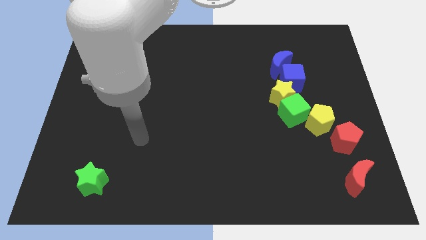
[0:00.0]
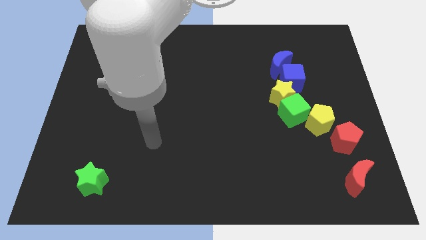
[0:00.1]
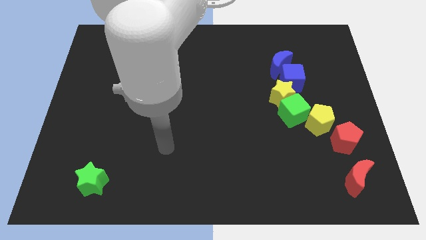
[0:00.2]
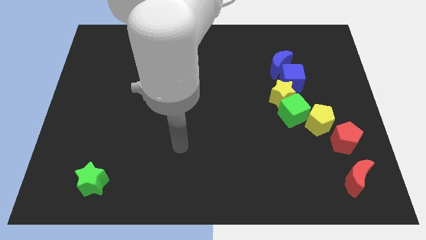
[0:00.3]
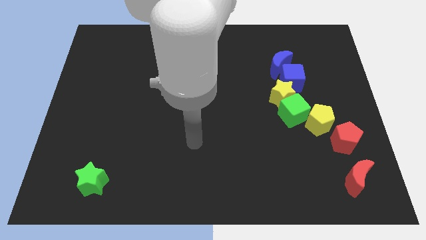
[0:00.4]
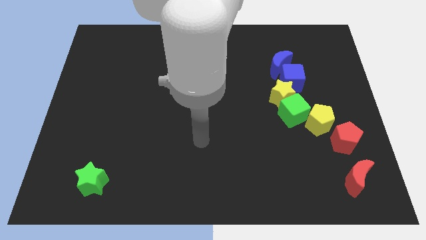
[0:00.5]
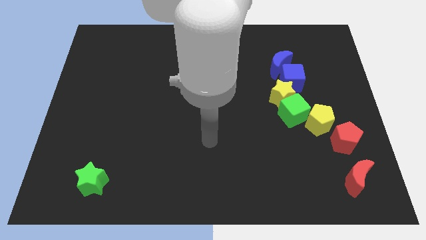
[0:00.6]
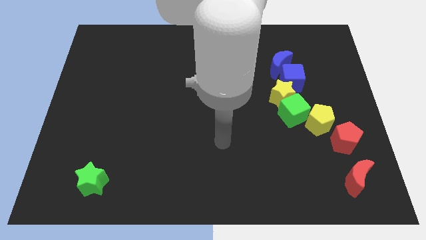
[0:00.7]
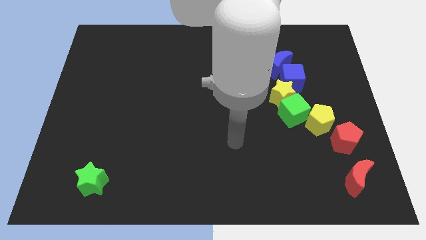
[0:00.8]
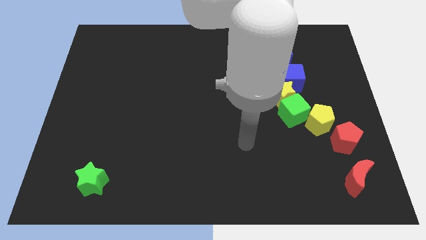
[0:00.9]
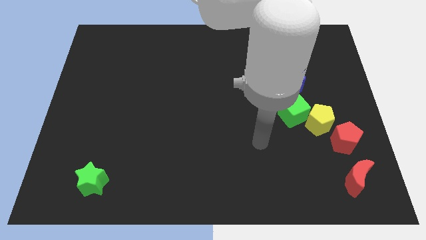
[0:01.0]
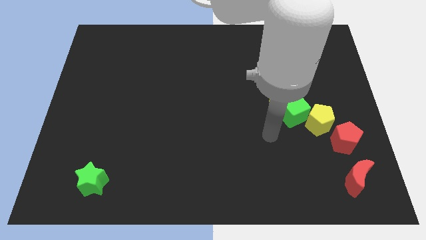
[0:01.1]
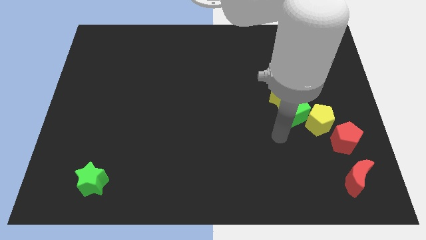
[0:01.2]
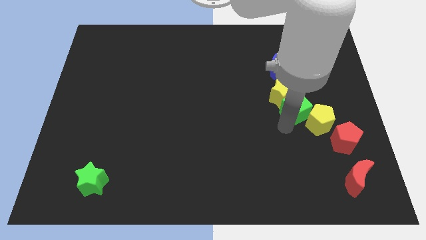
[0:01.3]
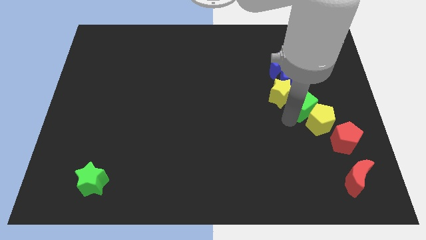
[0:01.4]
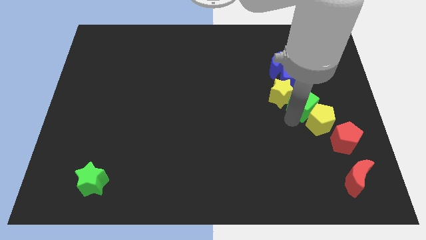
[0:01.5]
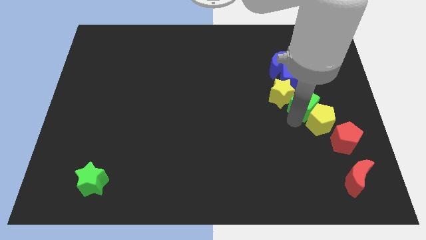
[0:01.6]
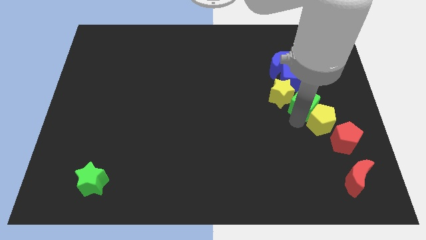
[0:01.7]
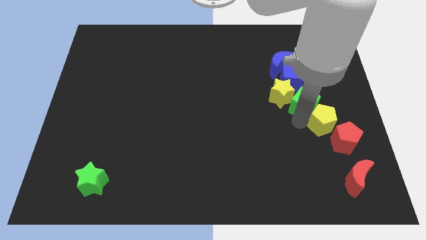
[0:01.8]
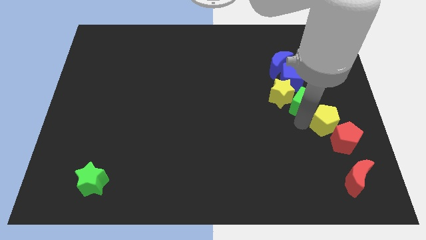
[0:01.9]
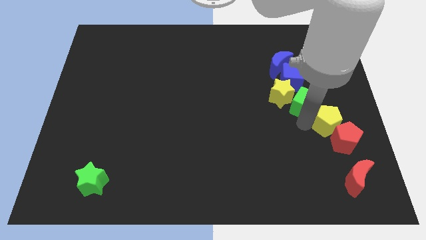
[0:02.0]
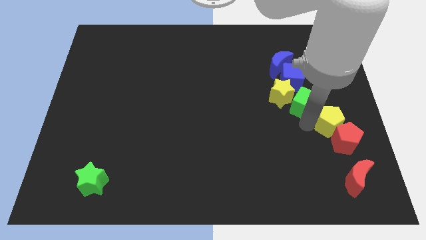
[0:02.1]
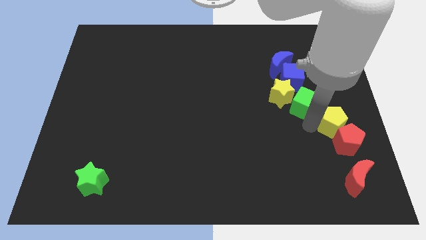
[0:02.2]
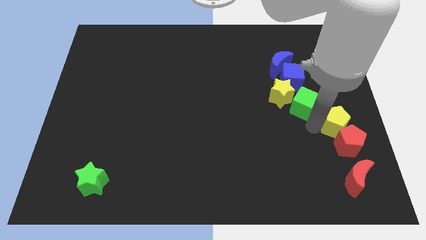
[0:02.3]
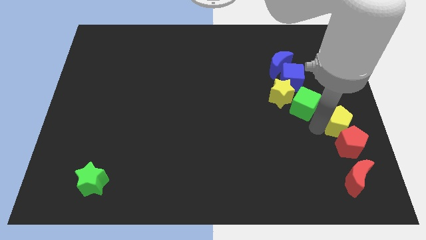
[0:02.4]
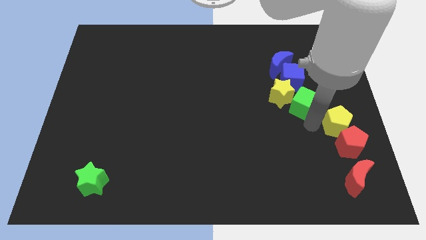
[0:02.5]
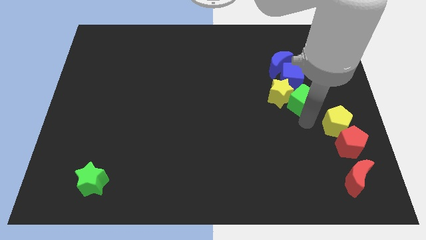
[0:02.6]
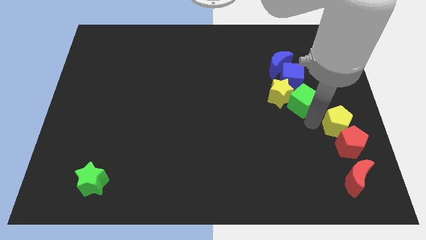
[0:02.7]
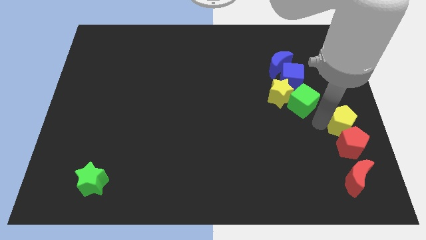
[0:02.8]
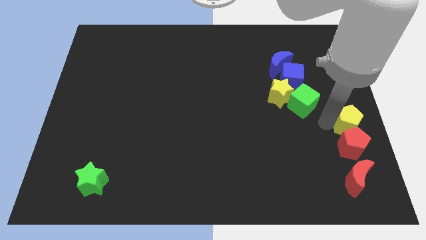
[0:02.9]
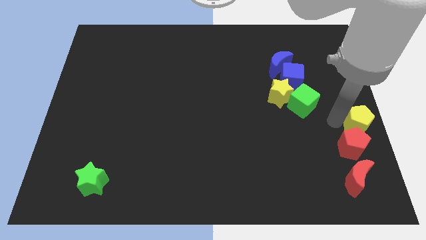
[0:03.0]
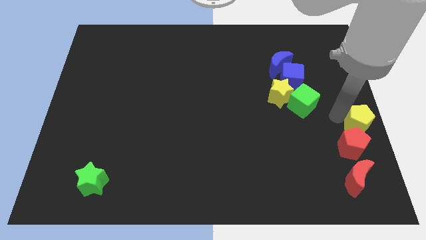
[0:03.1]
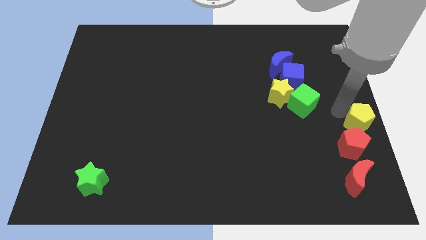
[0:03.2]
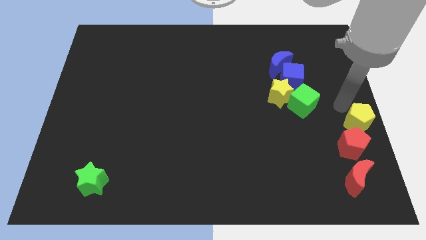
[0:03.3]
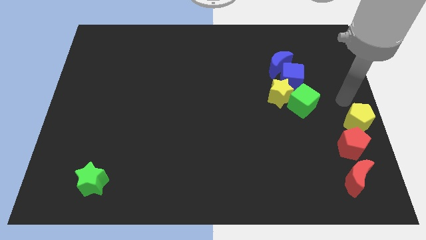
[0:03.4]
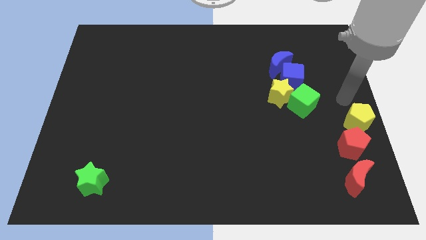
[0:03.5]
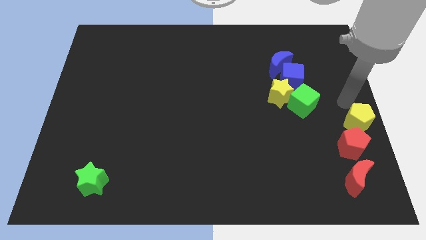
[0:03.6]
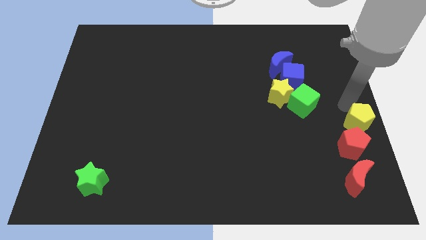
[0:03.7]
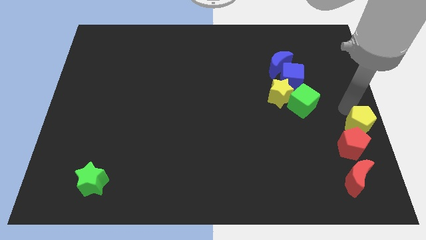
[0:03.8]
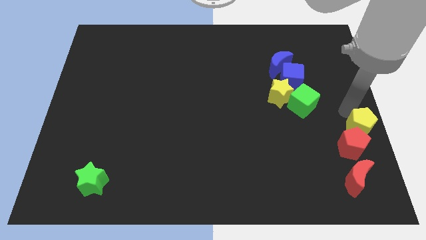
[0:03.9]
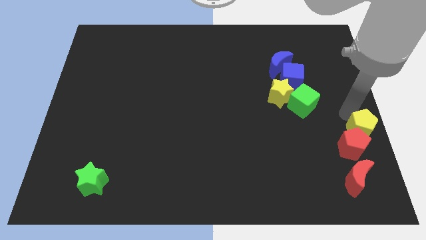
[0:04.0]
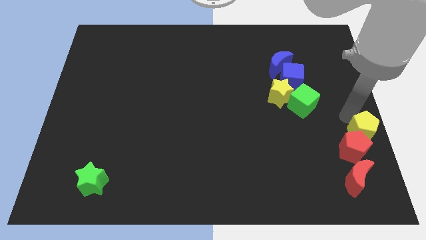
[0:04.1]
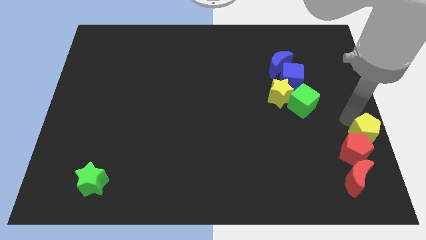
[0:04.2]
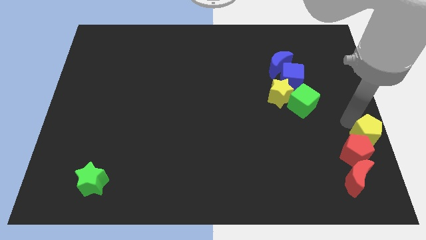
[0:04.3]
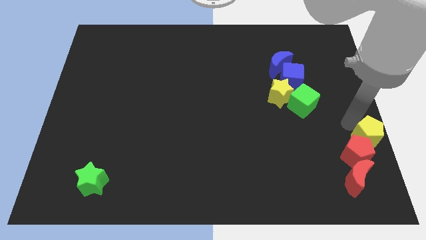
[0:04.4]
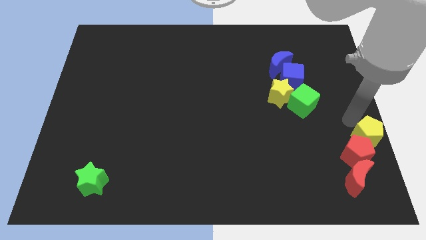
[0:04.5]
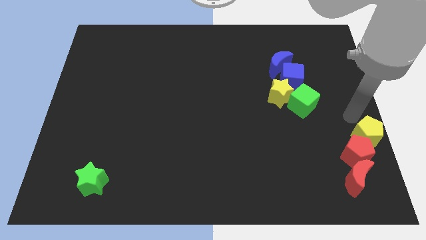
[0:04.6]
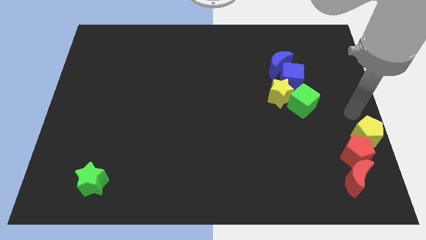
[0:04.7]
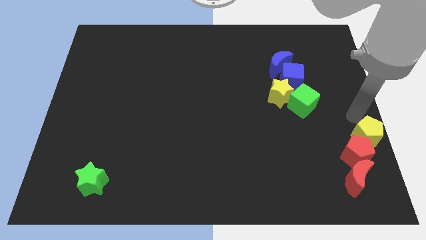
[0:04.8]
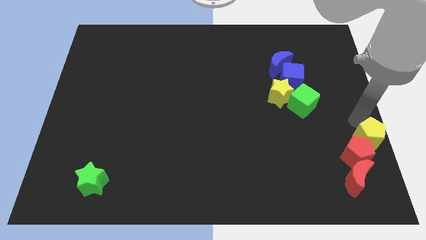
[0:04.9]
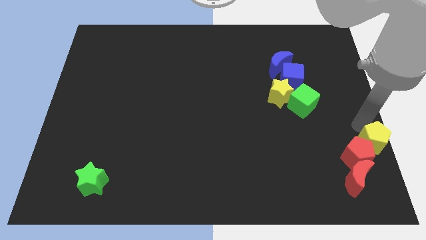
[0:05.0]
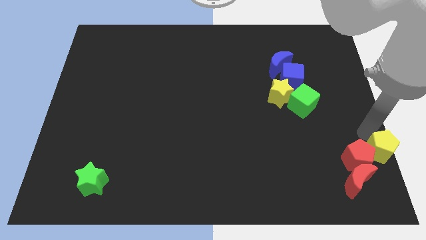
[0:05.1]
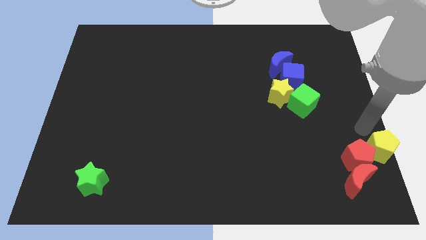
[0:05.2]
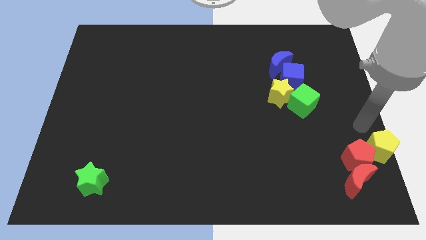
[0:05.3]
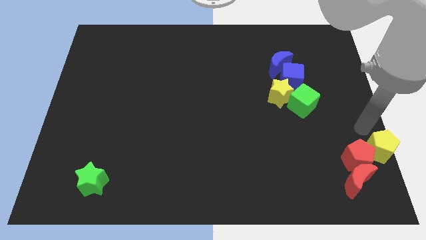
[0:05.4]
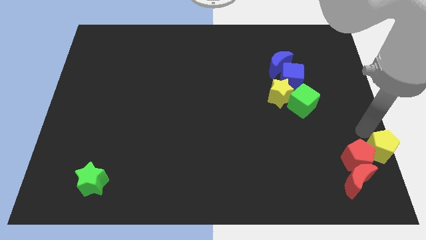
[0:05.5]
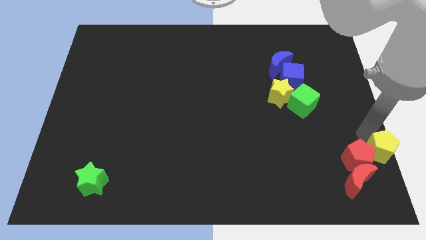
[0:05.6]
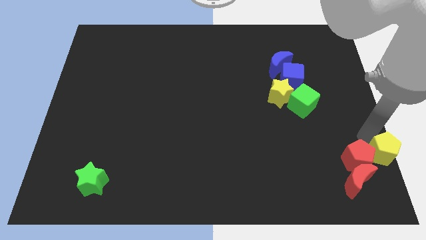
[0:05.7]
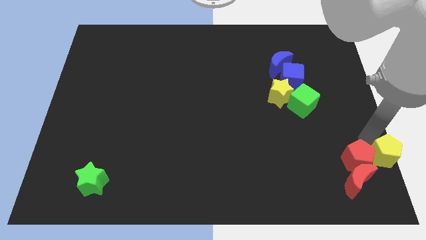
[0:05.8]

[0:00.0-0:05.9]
put the yellow pentagon to the bottom right

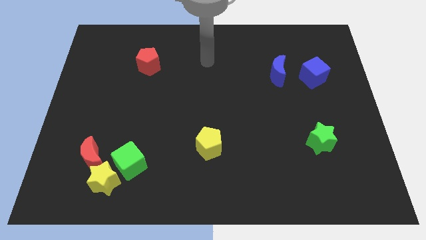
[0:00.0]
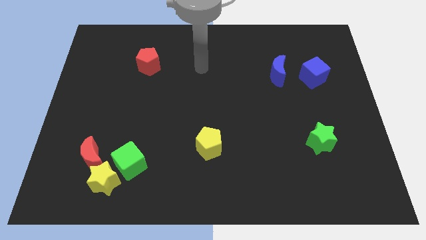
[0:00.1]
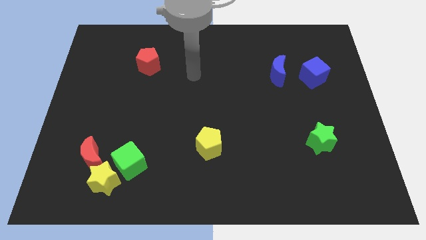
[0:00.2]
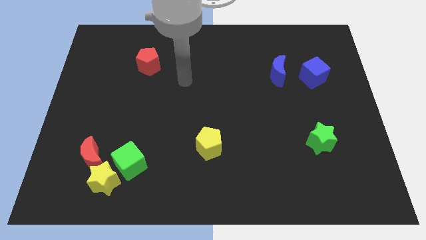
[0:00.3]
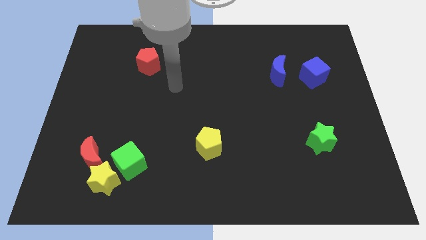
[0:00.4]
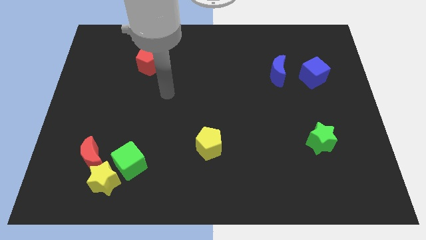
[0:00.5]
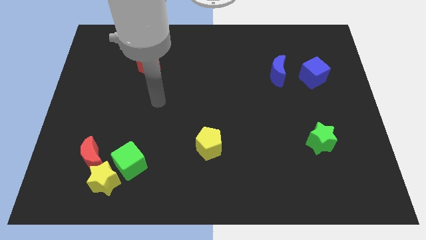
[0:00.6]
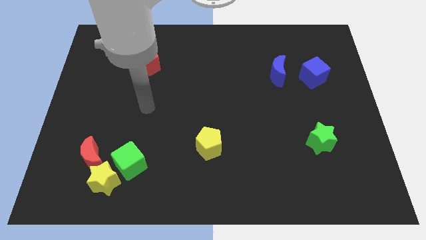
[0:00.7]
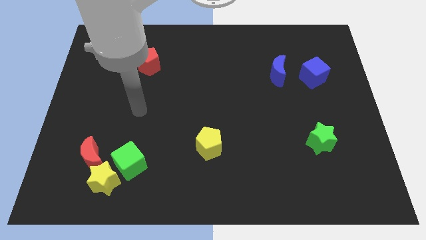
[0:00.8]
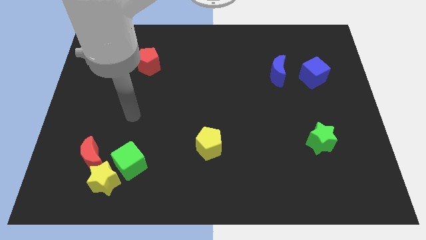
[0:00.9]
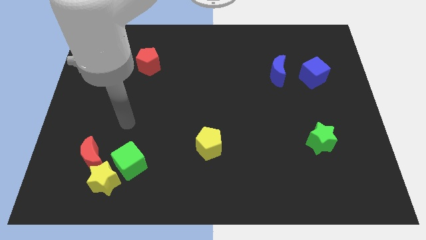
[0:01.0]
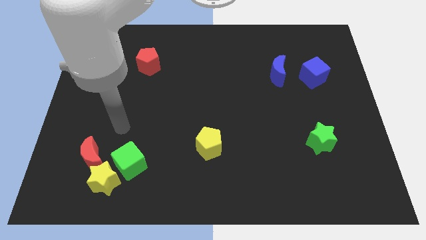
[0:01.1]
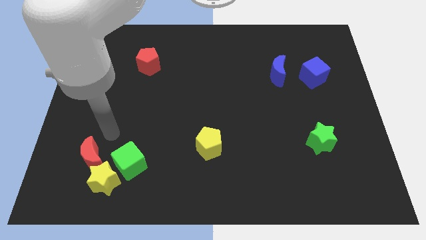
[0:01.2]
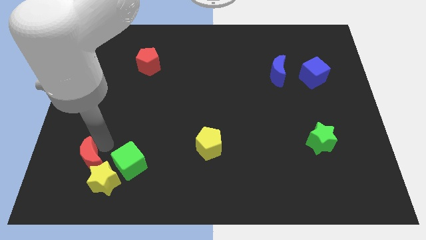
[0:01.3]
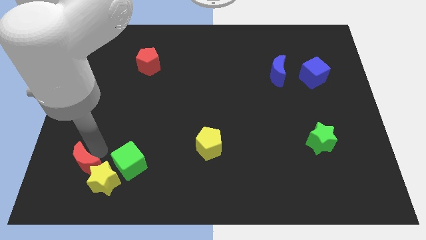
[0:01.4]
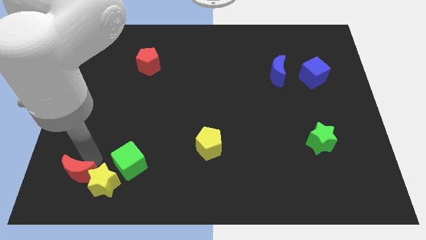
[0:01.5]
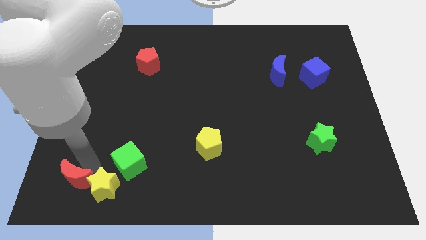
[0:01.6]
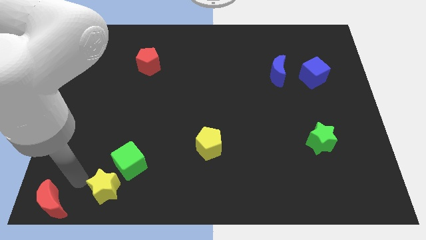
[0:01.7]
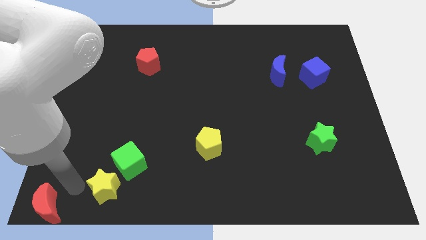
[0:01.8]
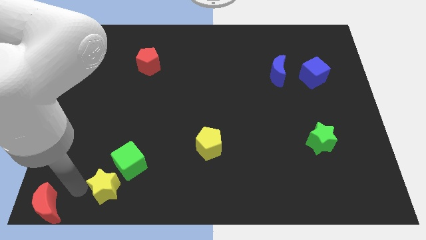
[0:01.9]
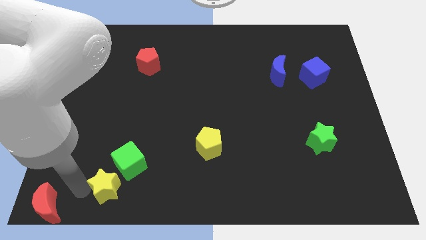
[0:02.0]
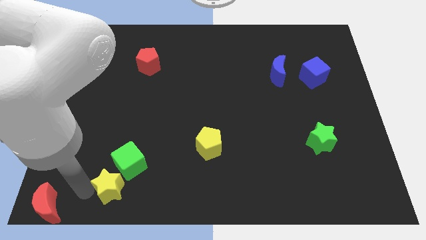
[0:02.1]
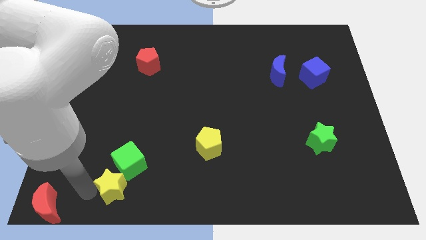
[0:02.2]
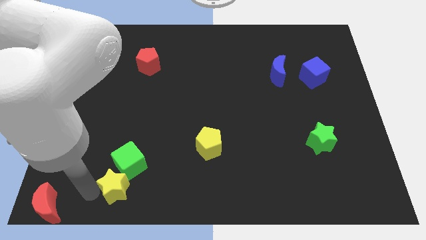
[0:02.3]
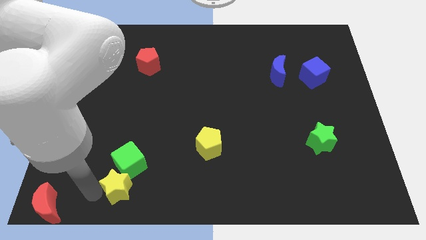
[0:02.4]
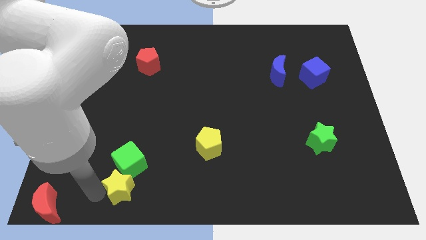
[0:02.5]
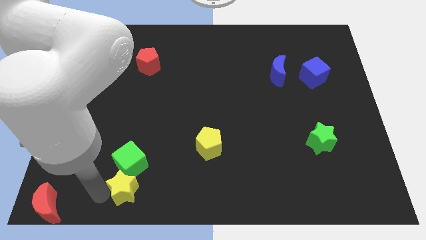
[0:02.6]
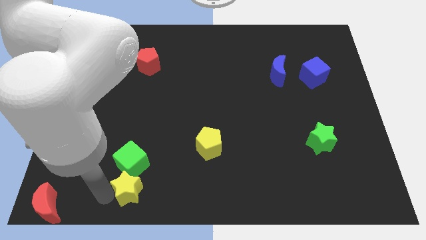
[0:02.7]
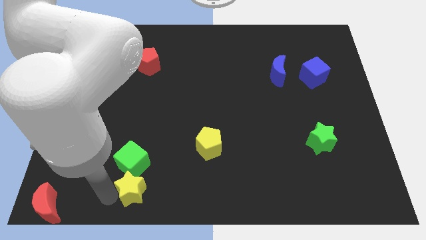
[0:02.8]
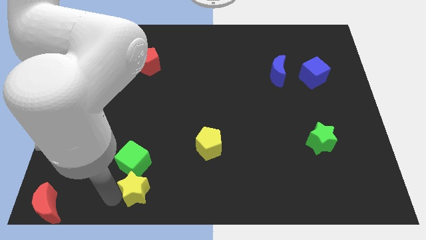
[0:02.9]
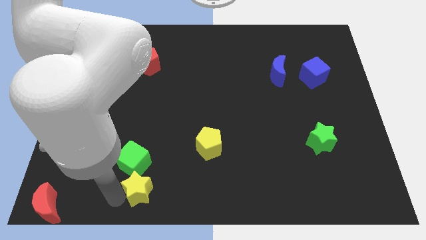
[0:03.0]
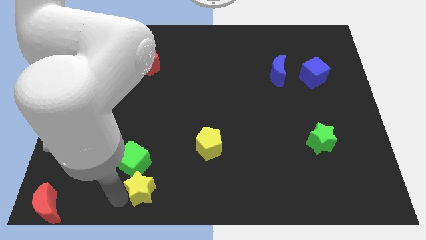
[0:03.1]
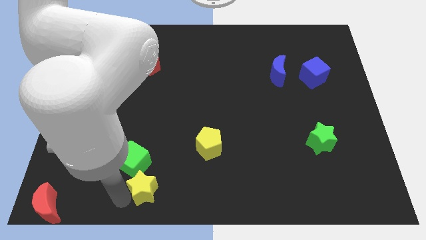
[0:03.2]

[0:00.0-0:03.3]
slide the yellow star to the bottom
